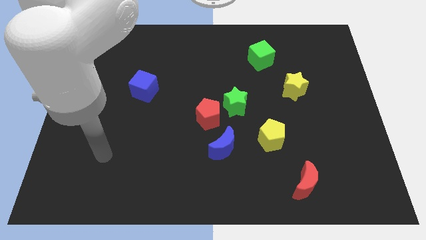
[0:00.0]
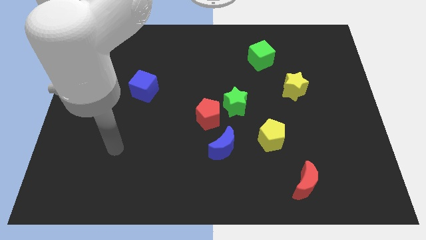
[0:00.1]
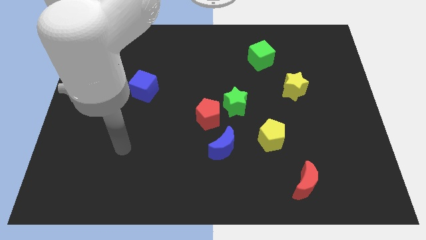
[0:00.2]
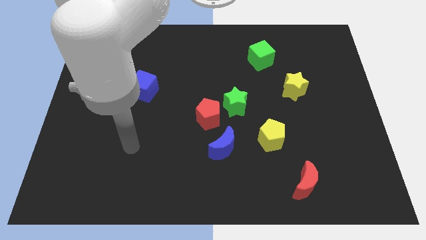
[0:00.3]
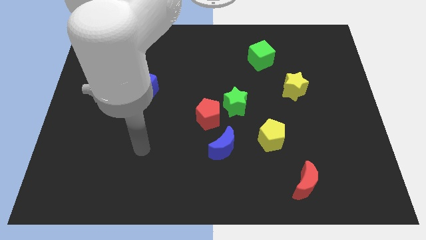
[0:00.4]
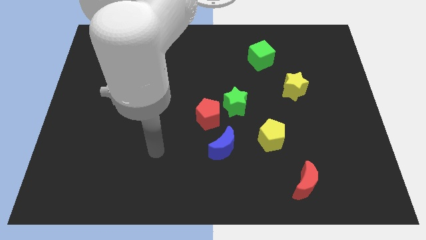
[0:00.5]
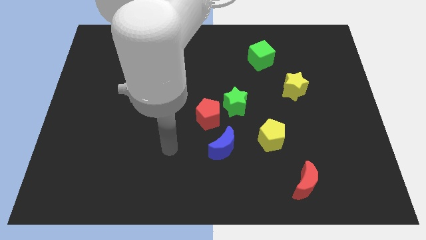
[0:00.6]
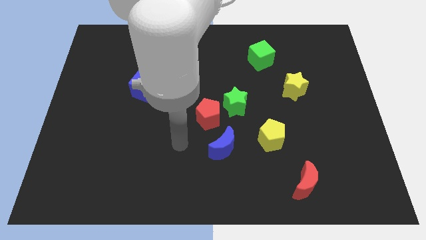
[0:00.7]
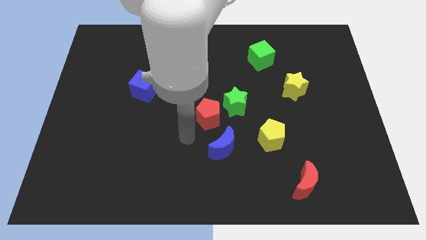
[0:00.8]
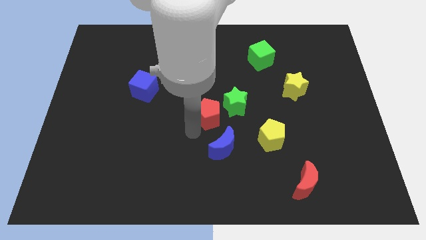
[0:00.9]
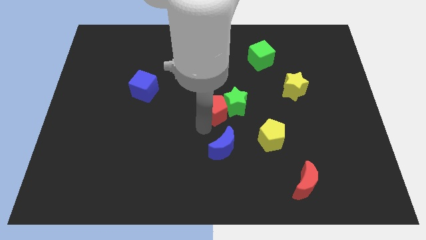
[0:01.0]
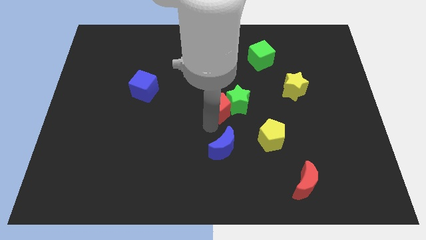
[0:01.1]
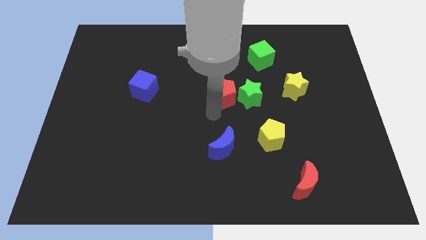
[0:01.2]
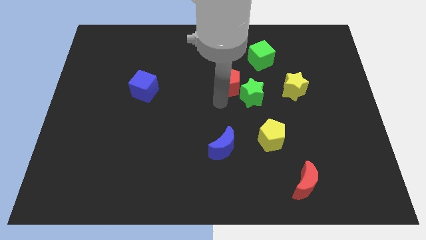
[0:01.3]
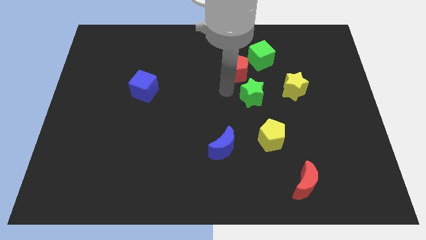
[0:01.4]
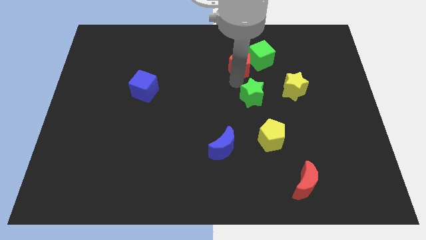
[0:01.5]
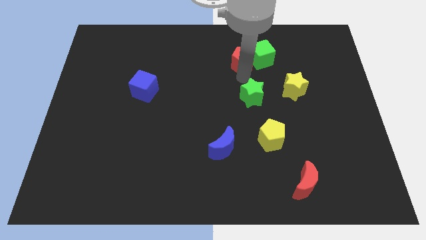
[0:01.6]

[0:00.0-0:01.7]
move the green star away from the red pentagon

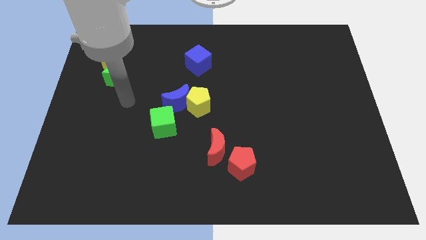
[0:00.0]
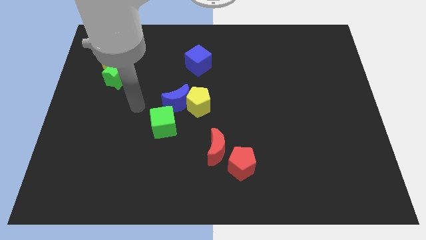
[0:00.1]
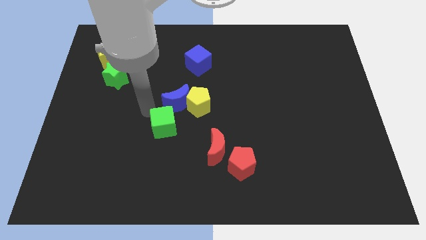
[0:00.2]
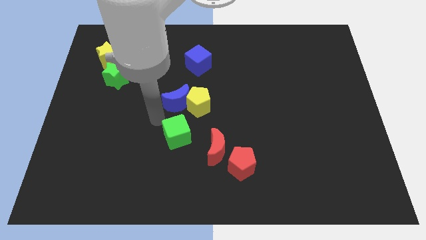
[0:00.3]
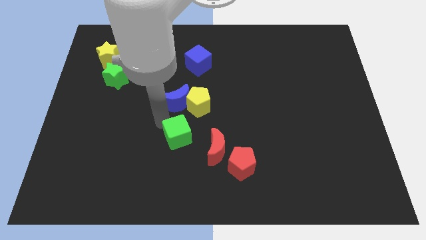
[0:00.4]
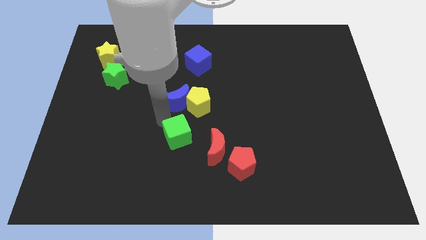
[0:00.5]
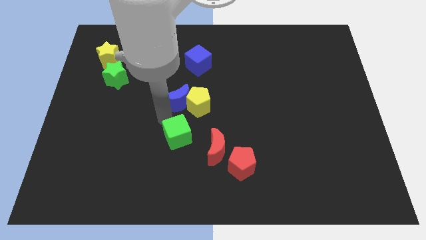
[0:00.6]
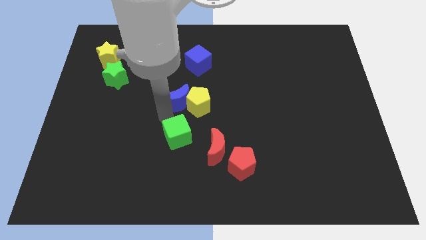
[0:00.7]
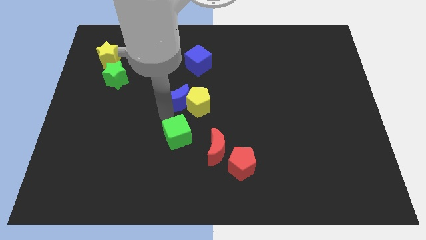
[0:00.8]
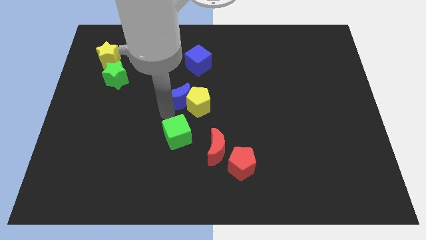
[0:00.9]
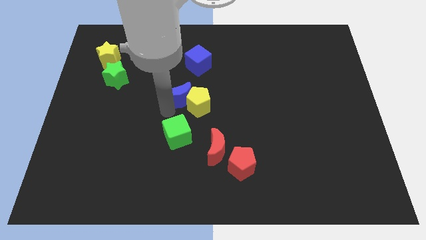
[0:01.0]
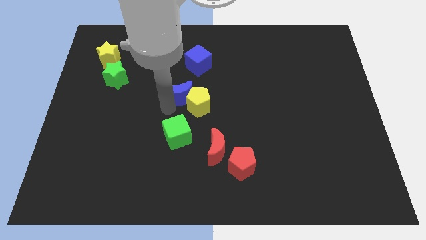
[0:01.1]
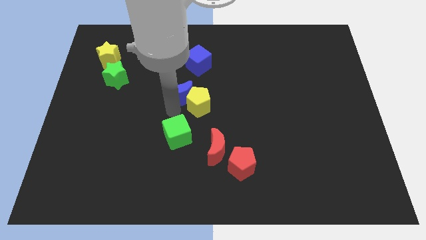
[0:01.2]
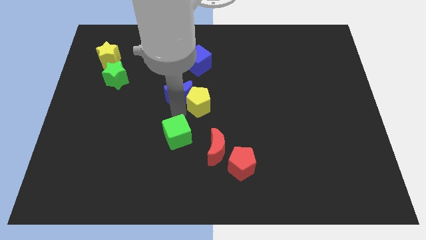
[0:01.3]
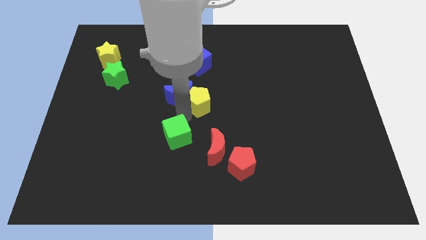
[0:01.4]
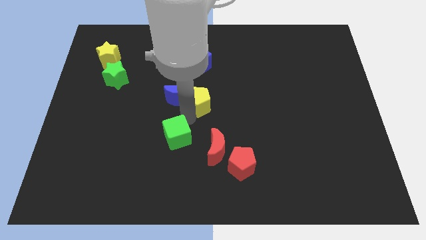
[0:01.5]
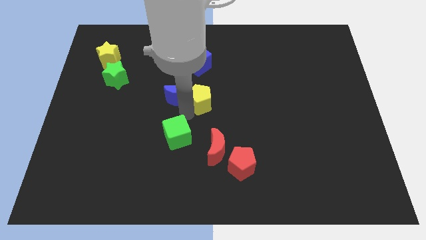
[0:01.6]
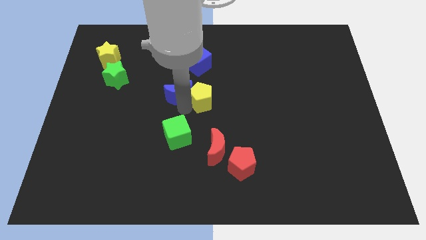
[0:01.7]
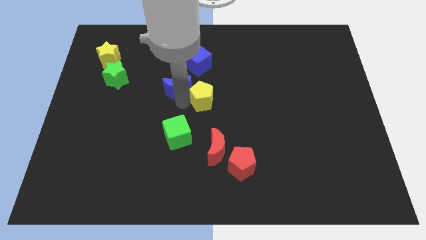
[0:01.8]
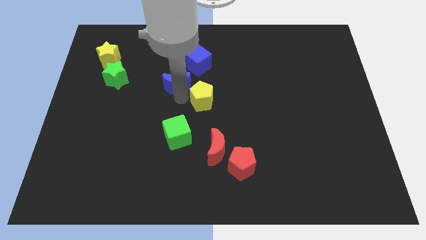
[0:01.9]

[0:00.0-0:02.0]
move the blue moon away from the yellow pentagon and green cube

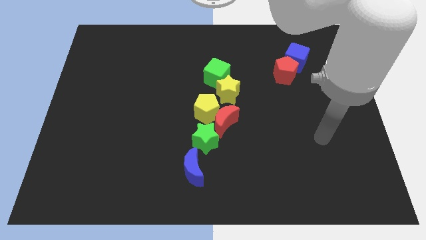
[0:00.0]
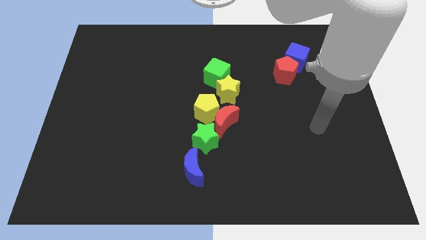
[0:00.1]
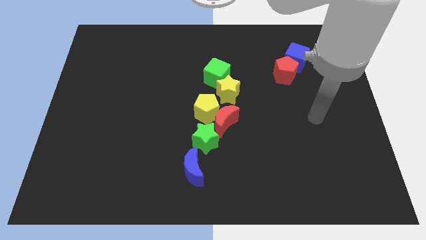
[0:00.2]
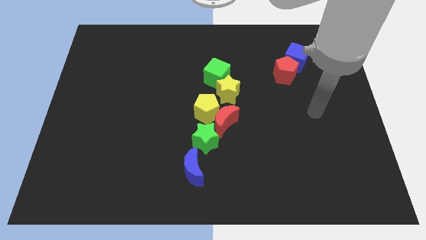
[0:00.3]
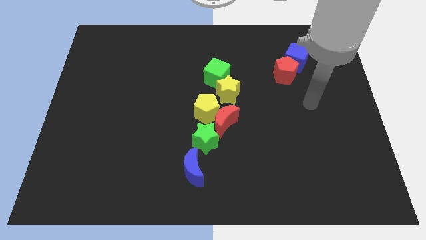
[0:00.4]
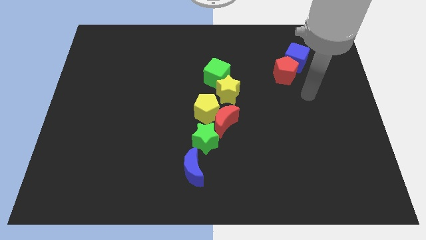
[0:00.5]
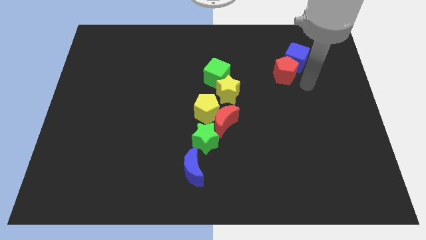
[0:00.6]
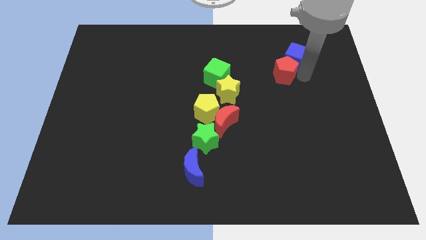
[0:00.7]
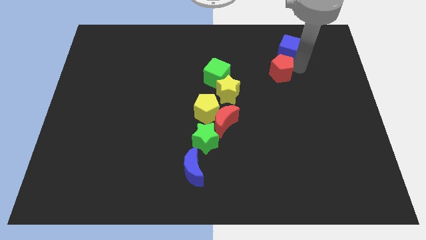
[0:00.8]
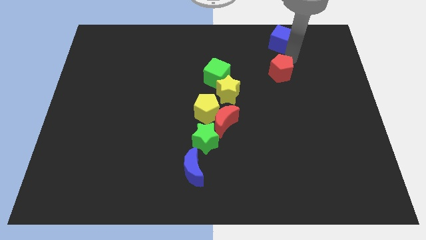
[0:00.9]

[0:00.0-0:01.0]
move the red pentagon away from the blue cube

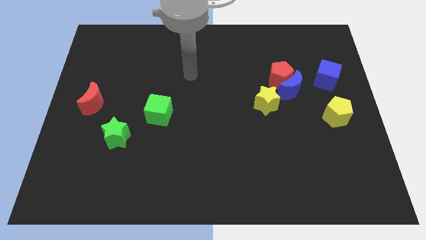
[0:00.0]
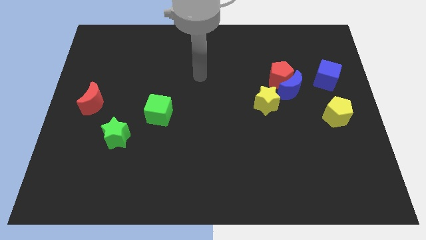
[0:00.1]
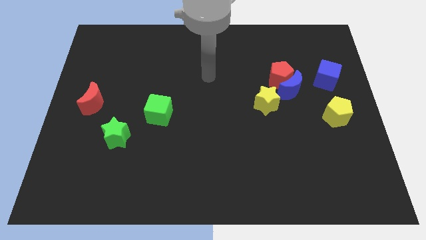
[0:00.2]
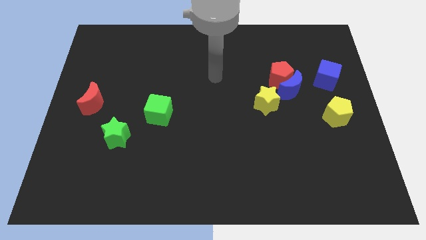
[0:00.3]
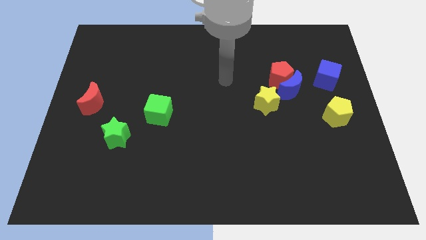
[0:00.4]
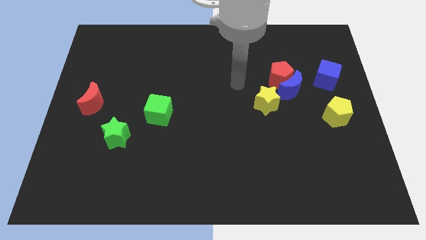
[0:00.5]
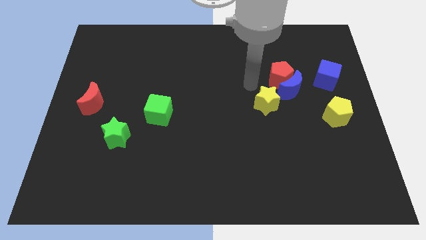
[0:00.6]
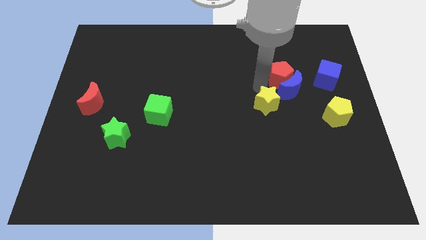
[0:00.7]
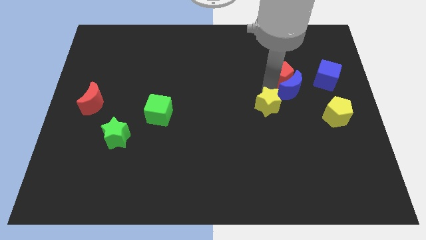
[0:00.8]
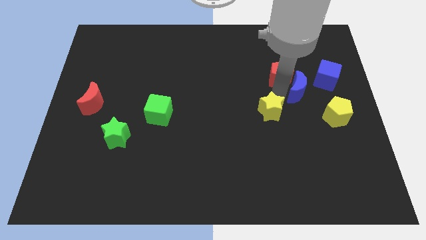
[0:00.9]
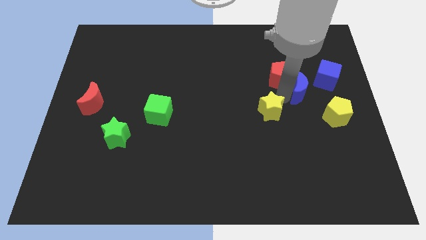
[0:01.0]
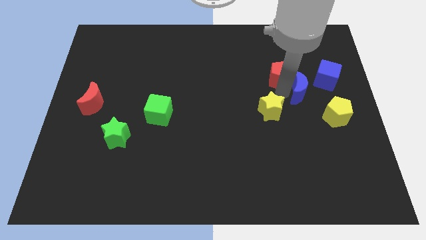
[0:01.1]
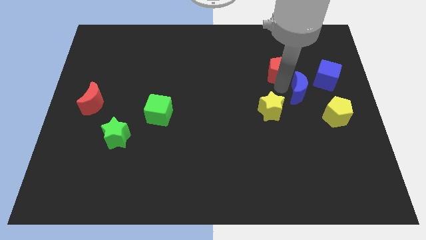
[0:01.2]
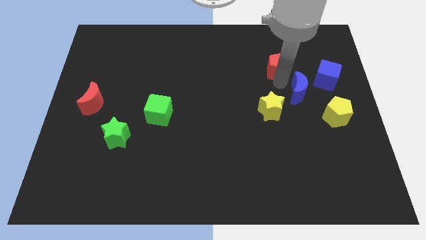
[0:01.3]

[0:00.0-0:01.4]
pull the red pentagon apart from the blue moon and yellow star

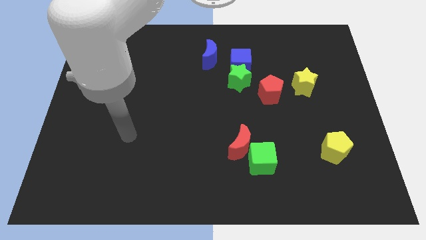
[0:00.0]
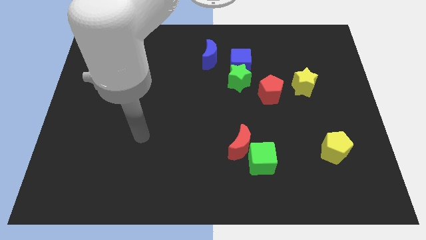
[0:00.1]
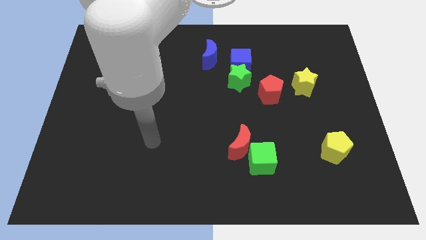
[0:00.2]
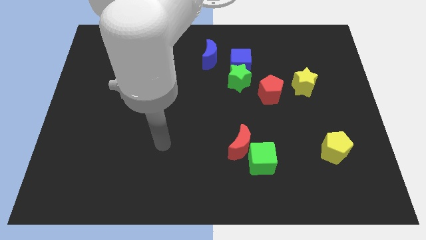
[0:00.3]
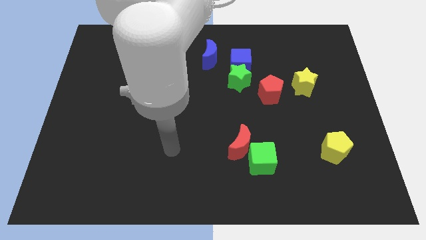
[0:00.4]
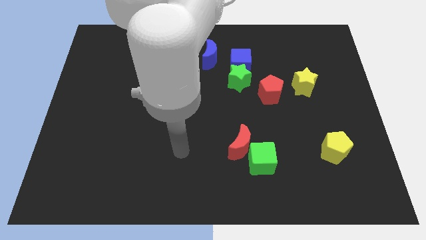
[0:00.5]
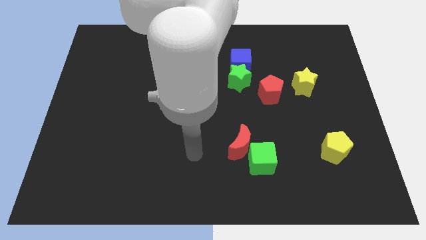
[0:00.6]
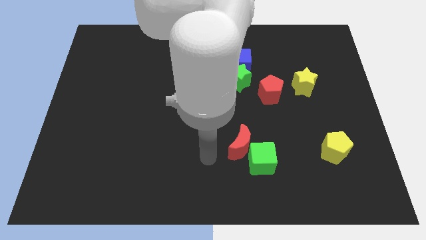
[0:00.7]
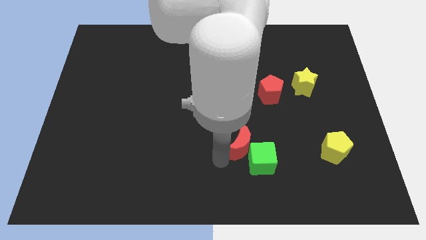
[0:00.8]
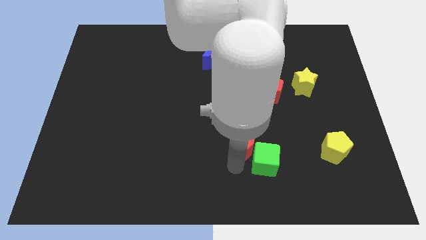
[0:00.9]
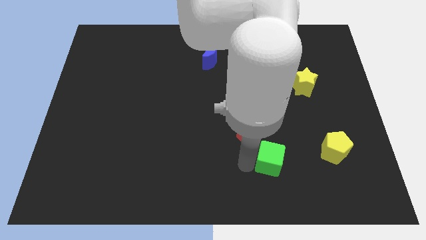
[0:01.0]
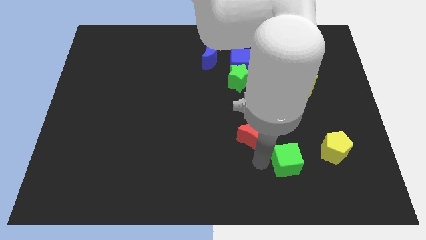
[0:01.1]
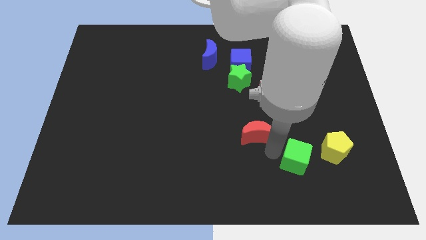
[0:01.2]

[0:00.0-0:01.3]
move the red moon away from the green cube

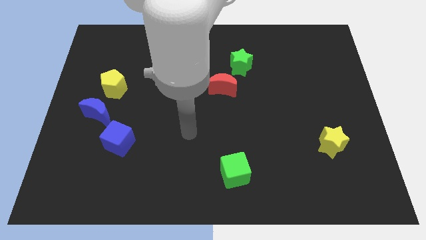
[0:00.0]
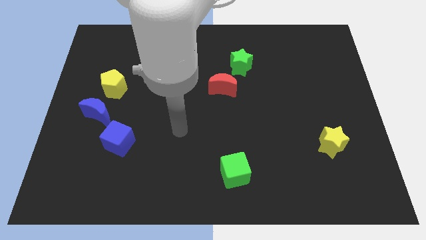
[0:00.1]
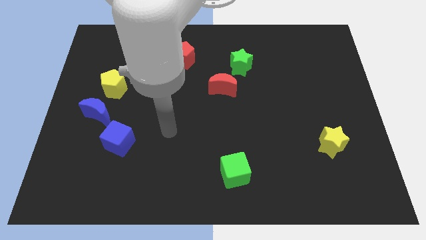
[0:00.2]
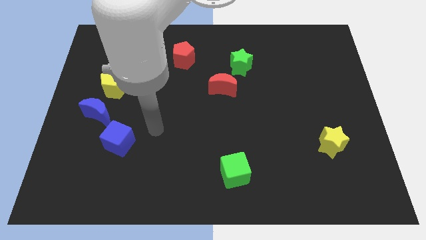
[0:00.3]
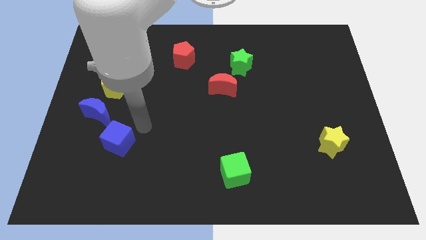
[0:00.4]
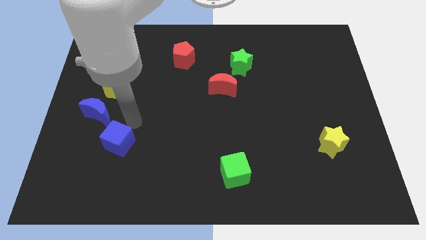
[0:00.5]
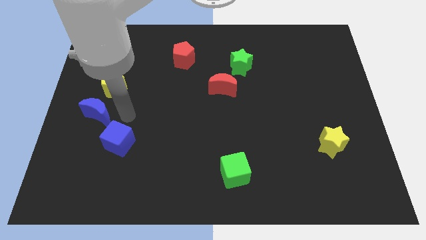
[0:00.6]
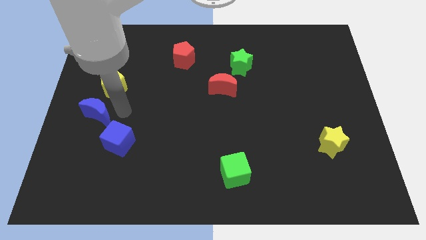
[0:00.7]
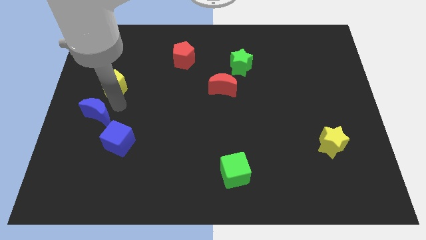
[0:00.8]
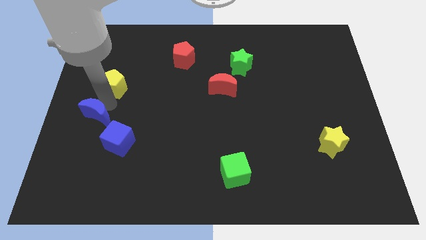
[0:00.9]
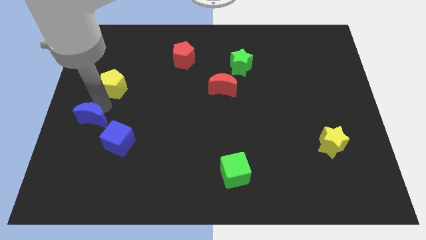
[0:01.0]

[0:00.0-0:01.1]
move the yellow pentagon away from the blue moon

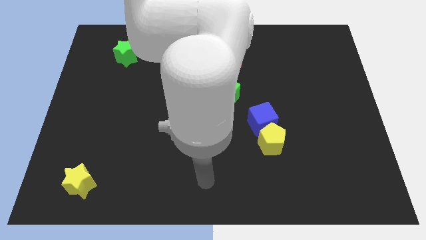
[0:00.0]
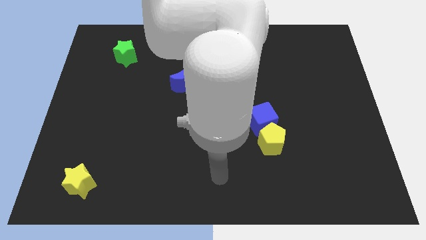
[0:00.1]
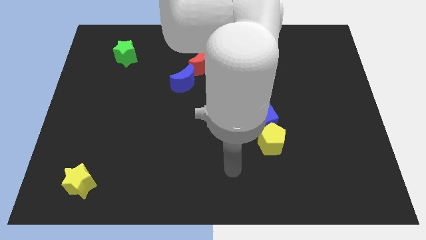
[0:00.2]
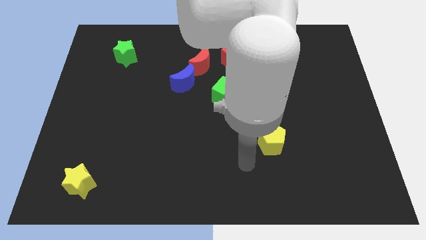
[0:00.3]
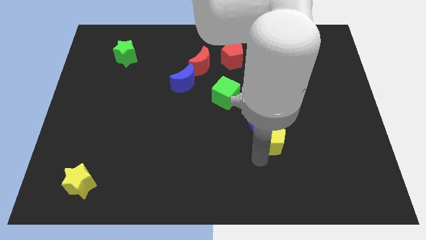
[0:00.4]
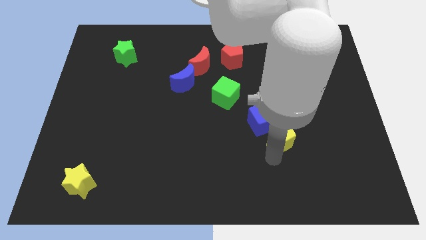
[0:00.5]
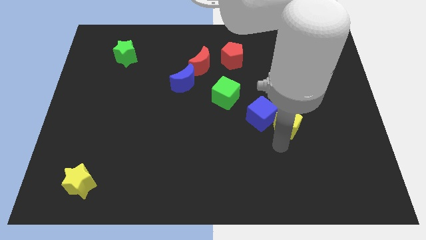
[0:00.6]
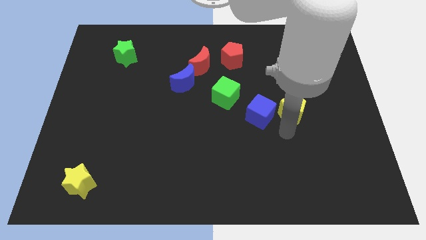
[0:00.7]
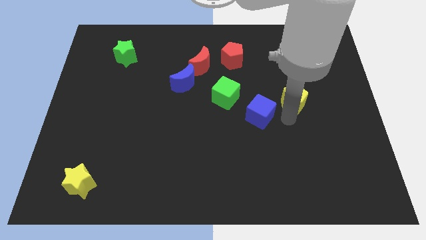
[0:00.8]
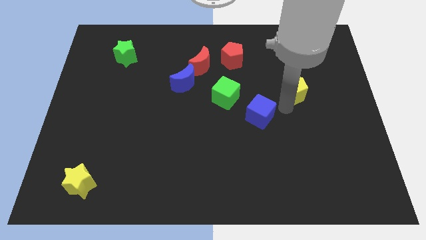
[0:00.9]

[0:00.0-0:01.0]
separate the blue cube from the yellow pentagon
